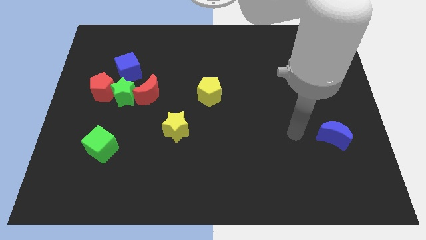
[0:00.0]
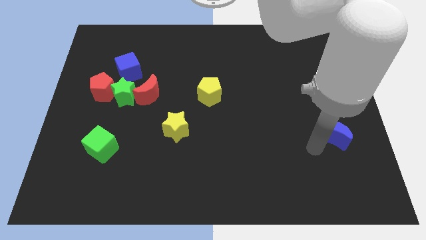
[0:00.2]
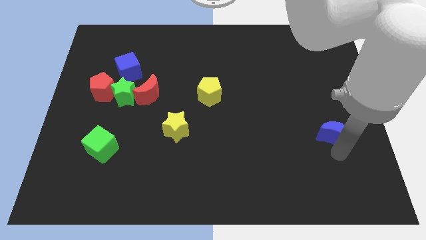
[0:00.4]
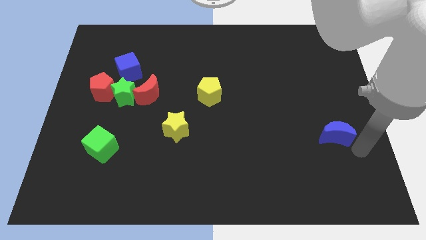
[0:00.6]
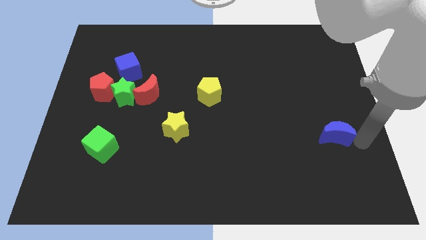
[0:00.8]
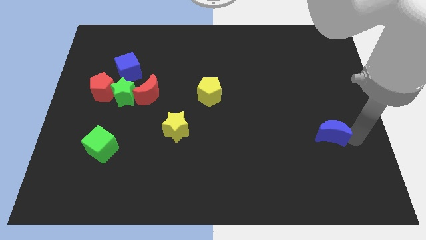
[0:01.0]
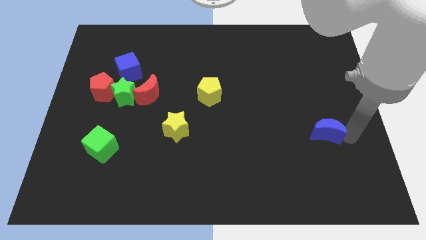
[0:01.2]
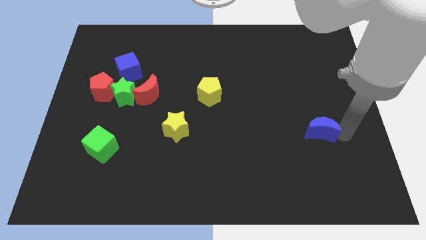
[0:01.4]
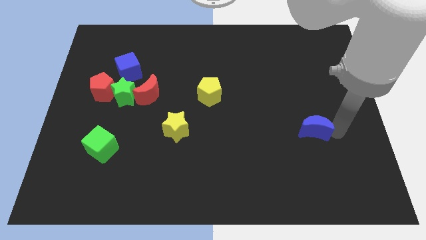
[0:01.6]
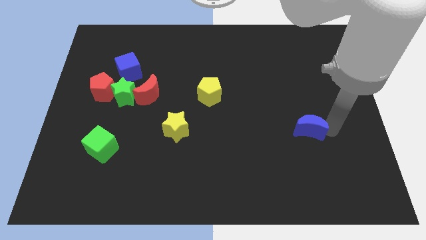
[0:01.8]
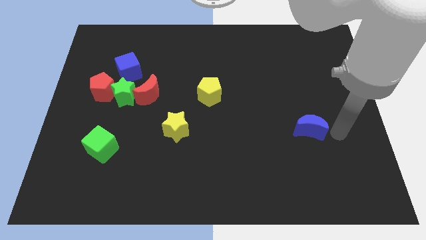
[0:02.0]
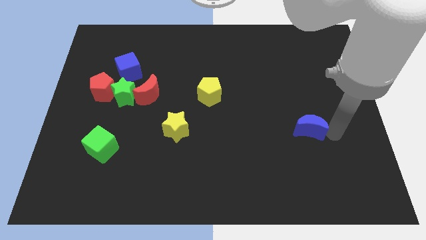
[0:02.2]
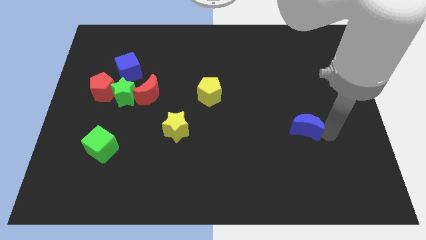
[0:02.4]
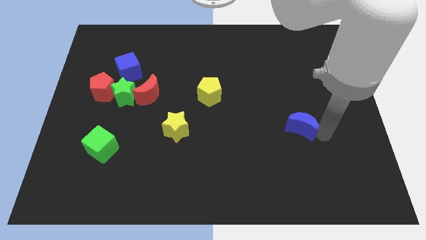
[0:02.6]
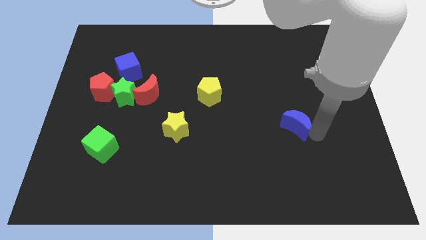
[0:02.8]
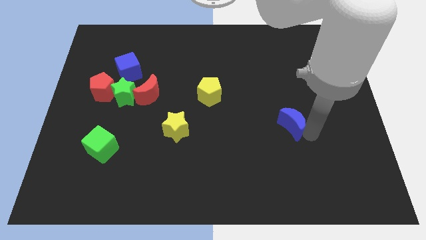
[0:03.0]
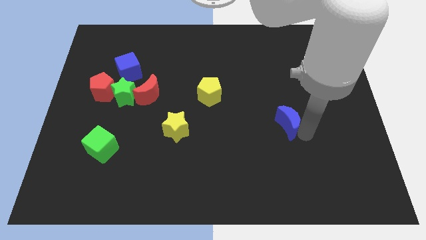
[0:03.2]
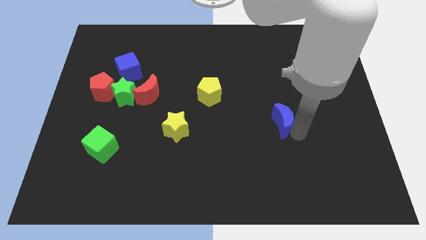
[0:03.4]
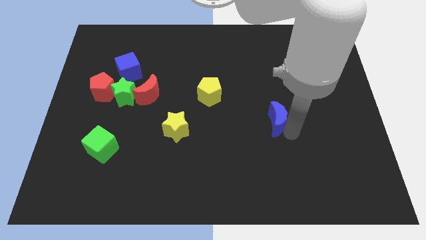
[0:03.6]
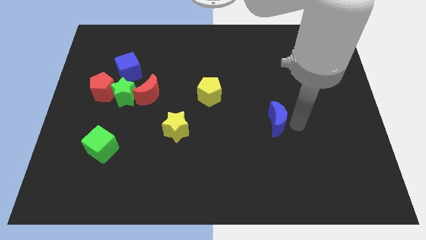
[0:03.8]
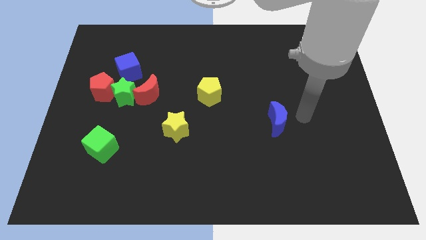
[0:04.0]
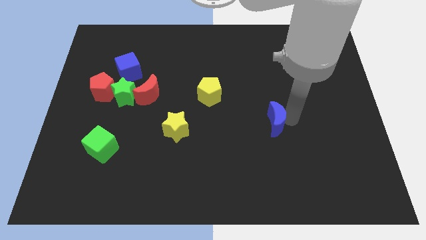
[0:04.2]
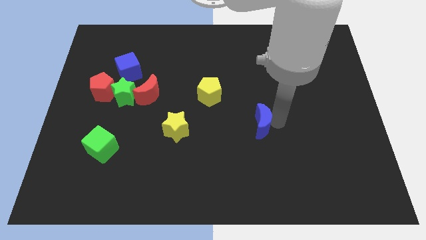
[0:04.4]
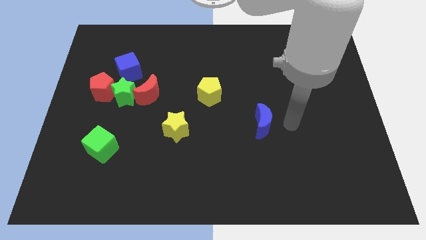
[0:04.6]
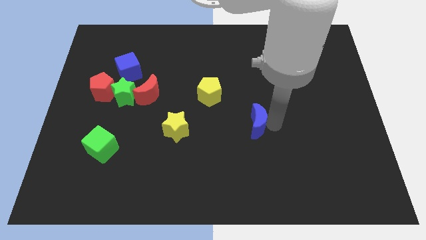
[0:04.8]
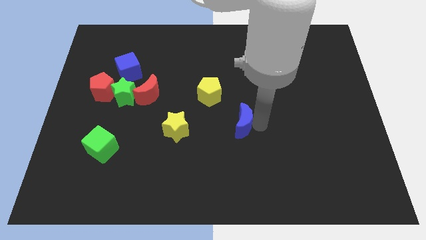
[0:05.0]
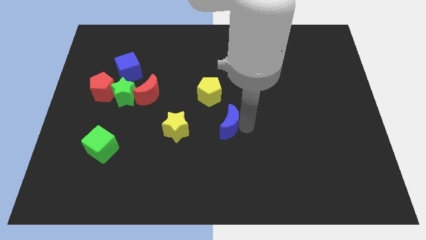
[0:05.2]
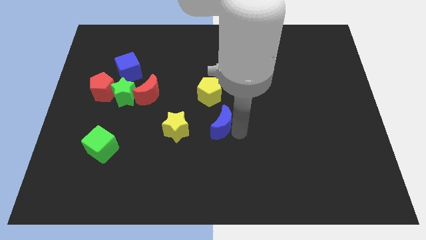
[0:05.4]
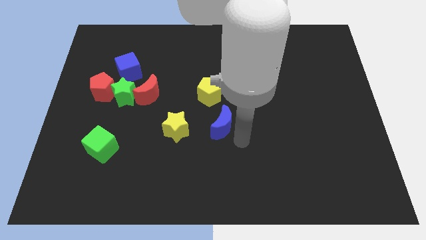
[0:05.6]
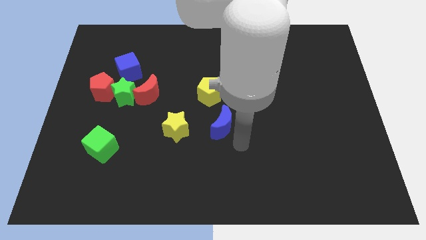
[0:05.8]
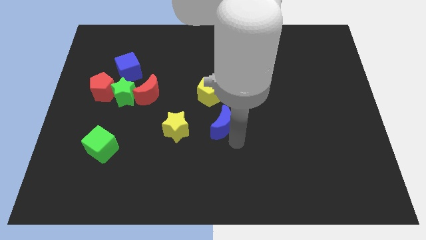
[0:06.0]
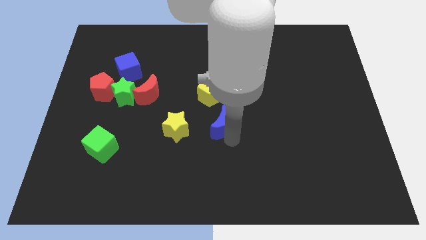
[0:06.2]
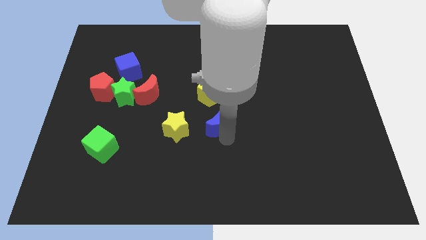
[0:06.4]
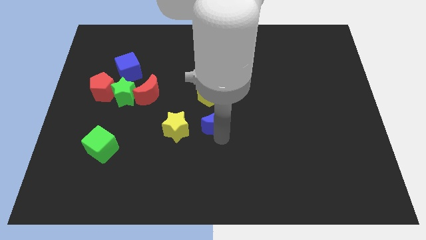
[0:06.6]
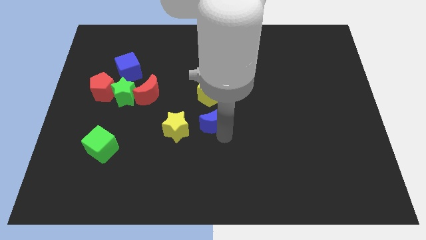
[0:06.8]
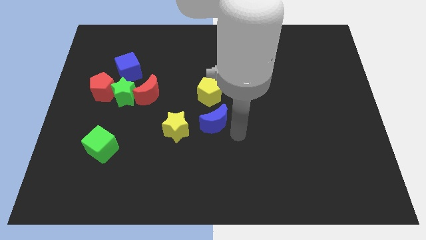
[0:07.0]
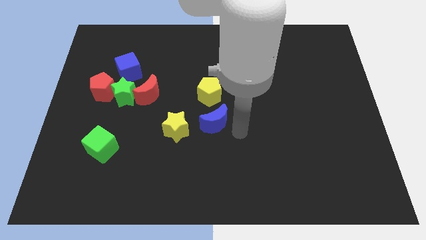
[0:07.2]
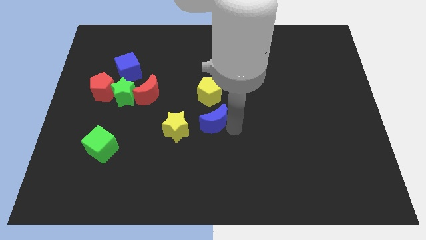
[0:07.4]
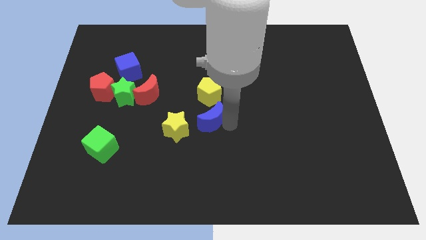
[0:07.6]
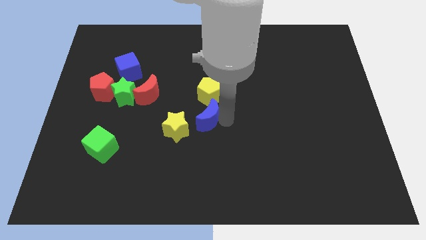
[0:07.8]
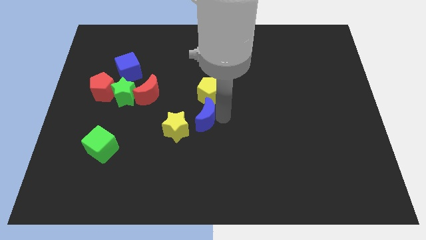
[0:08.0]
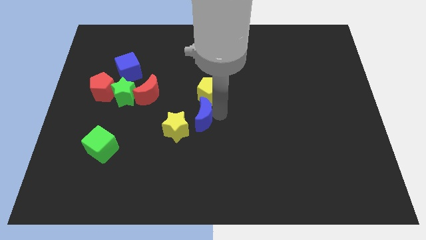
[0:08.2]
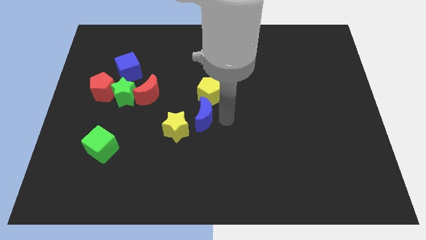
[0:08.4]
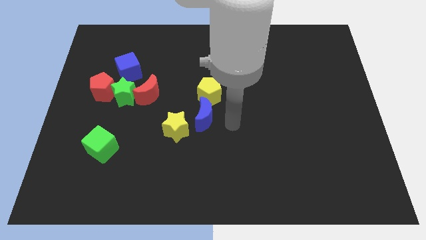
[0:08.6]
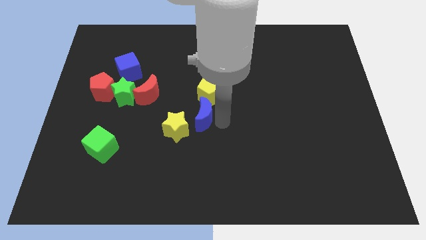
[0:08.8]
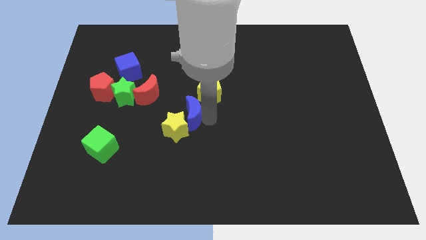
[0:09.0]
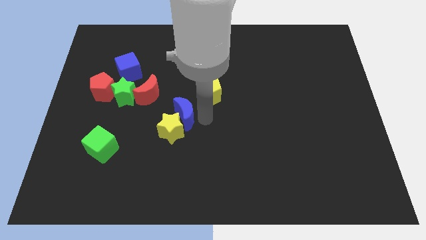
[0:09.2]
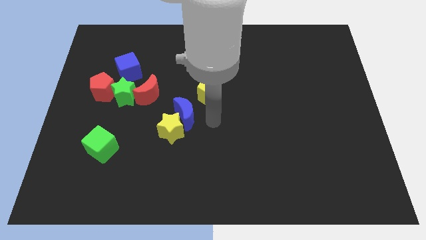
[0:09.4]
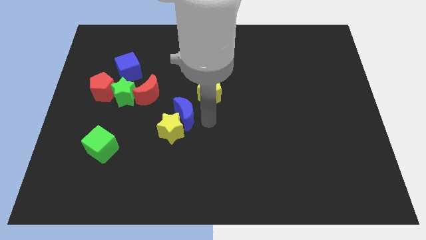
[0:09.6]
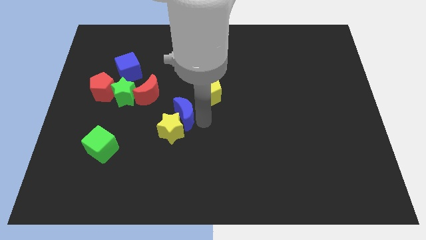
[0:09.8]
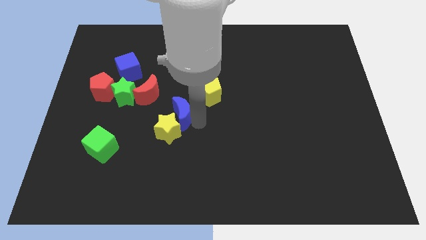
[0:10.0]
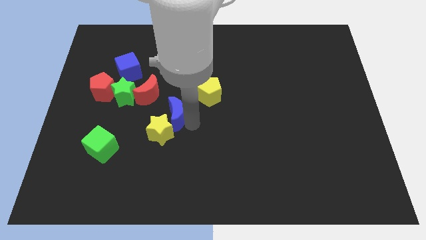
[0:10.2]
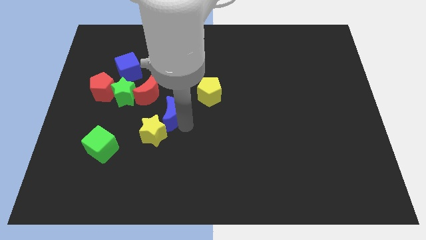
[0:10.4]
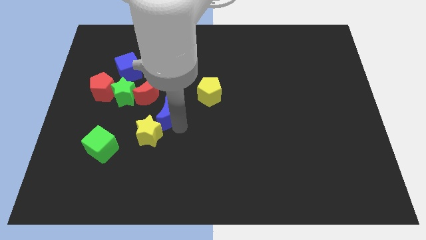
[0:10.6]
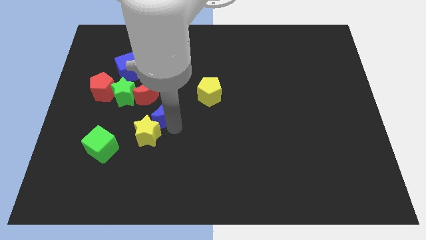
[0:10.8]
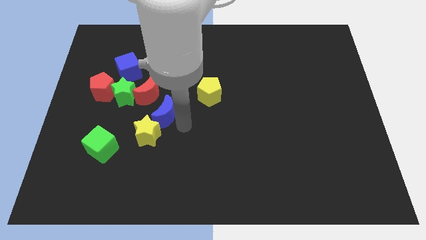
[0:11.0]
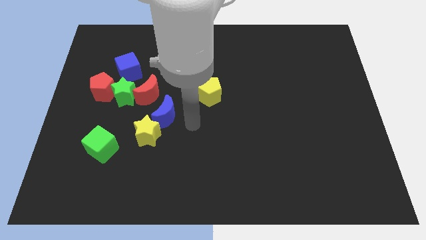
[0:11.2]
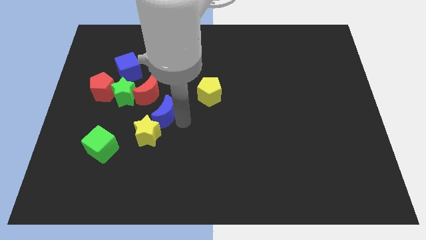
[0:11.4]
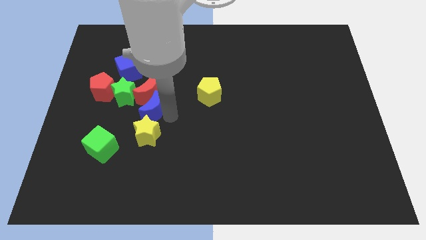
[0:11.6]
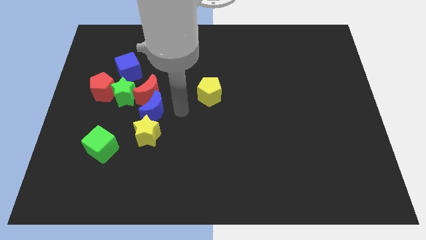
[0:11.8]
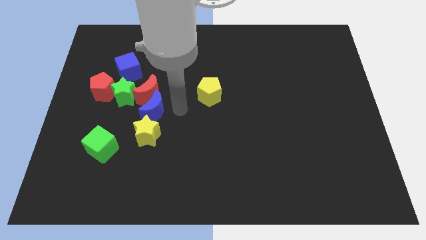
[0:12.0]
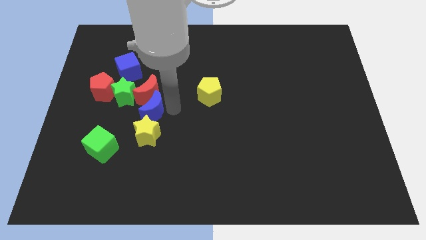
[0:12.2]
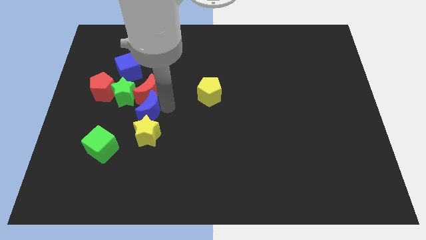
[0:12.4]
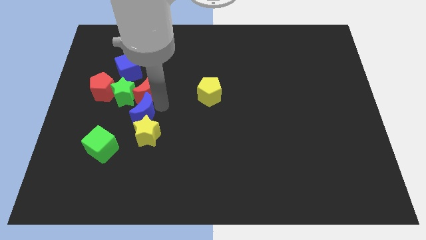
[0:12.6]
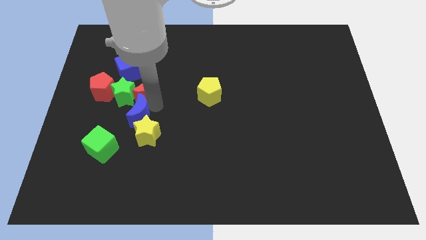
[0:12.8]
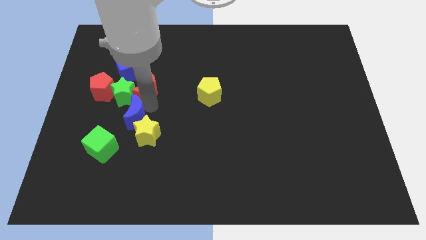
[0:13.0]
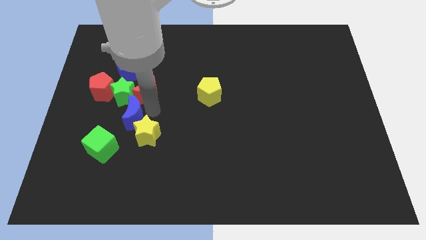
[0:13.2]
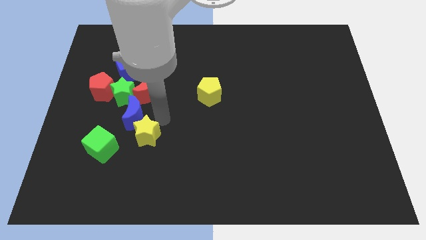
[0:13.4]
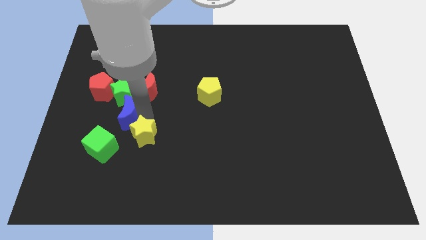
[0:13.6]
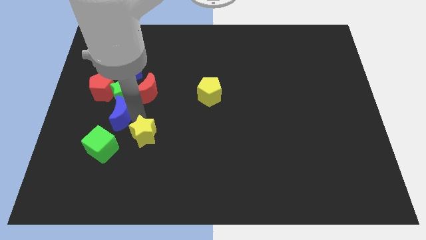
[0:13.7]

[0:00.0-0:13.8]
push the blue moon diagonally down and to the left of the green star

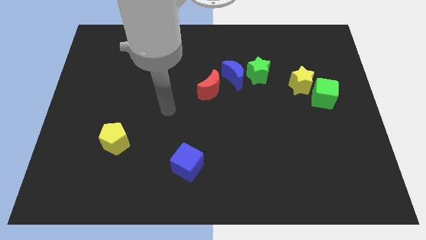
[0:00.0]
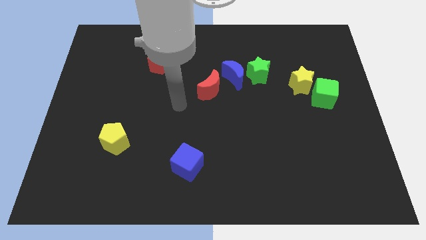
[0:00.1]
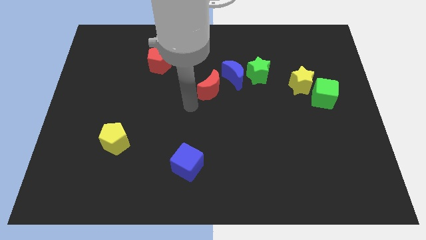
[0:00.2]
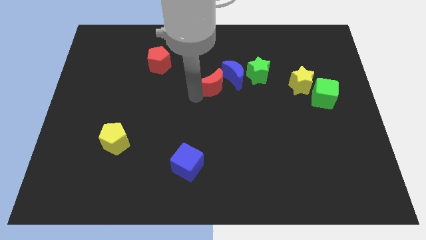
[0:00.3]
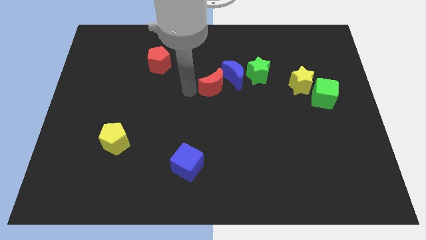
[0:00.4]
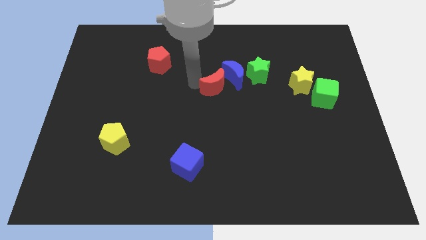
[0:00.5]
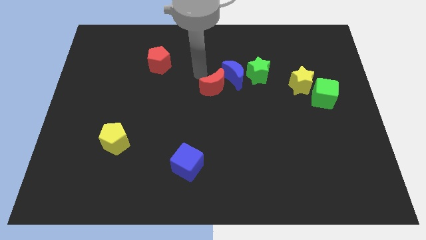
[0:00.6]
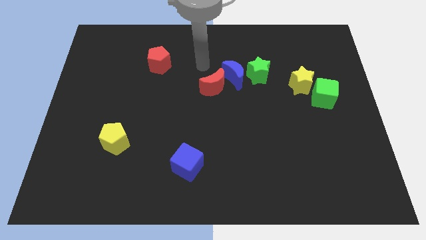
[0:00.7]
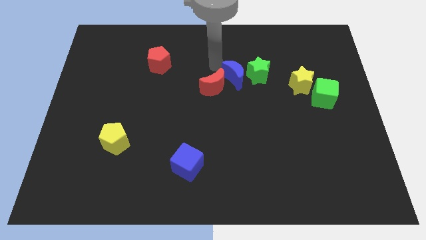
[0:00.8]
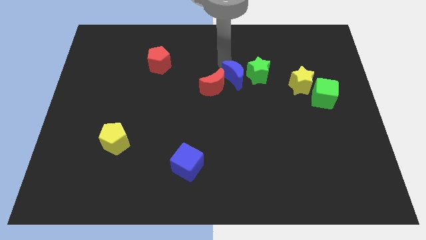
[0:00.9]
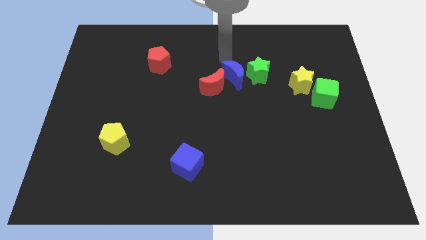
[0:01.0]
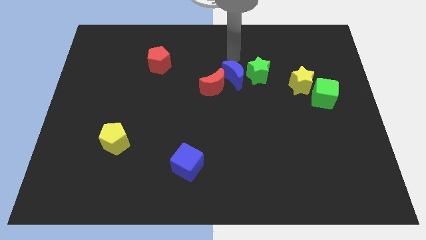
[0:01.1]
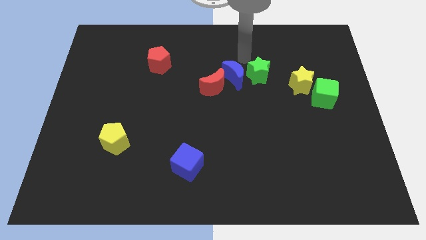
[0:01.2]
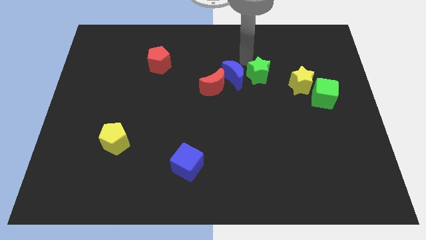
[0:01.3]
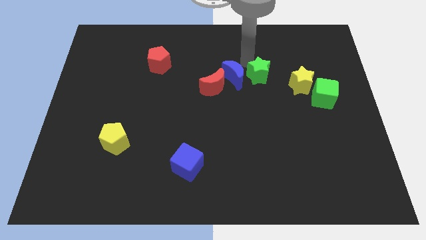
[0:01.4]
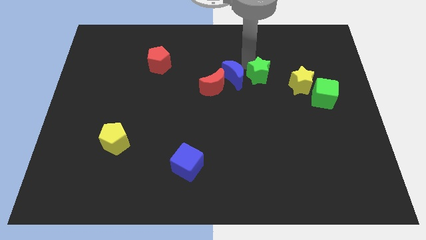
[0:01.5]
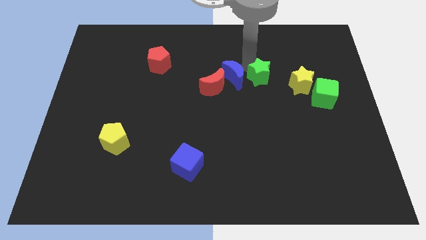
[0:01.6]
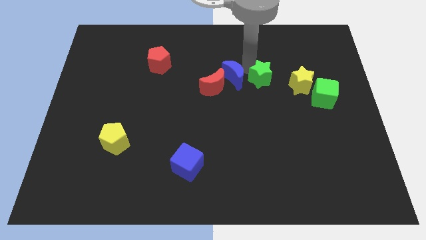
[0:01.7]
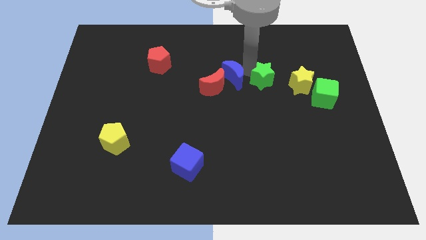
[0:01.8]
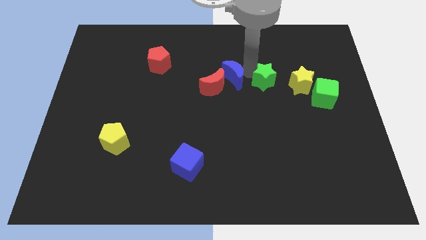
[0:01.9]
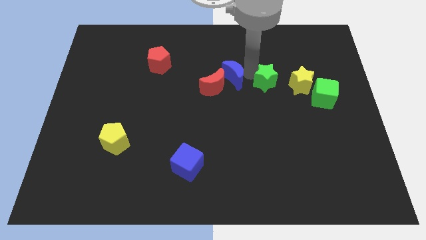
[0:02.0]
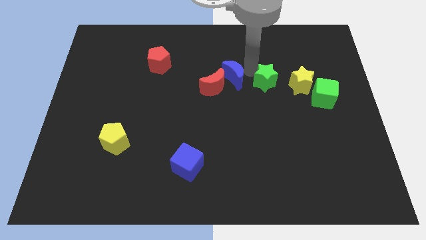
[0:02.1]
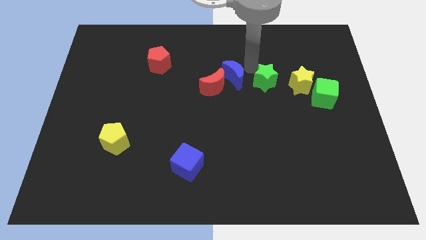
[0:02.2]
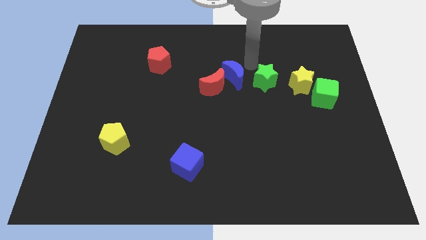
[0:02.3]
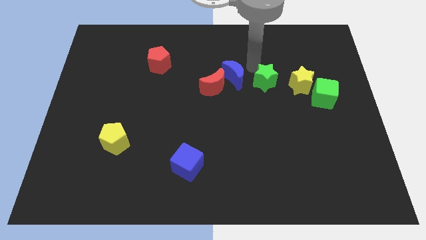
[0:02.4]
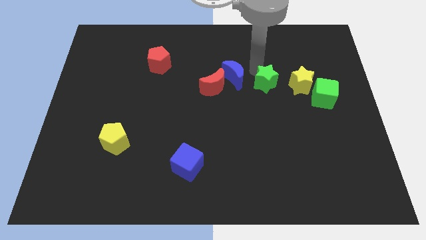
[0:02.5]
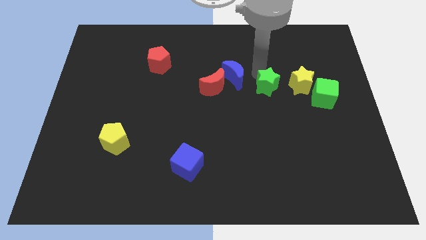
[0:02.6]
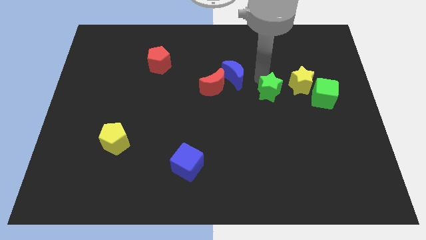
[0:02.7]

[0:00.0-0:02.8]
move the green star diagonally down and to the left of the yellow star
